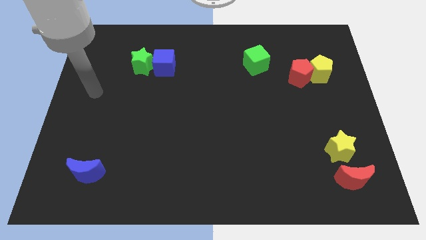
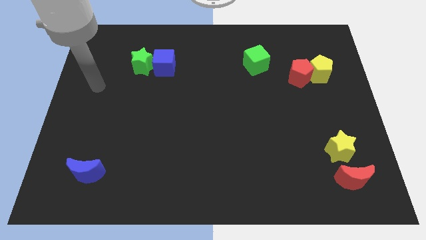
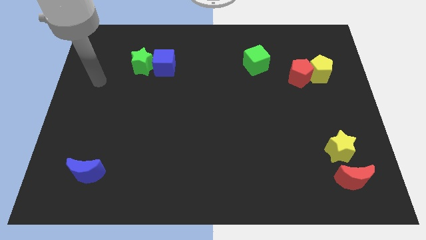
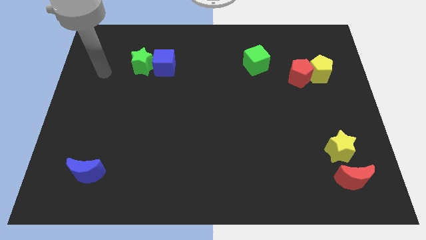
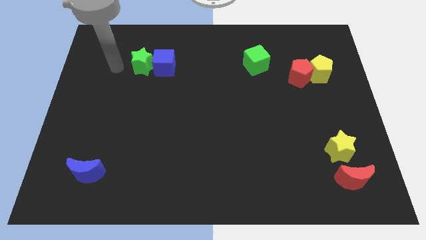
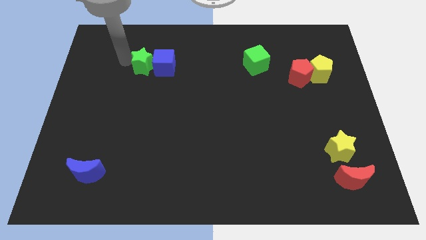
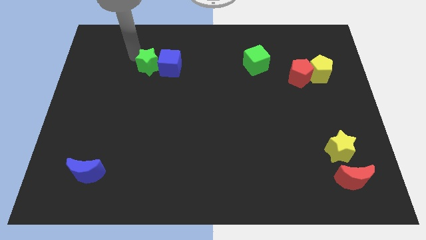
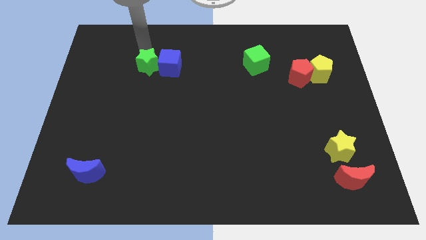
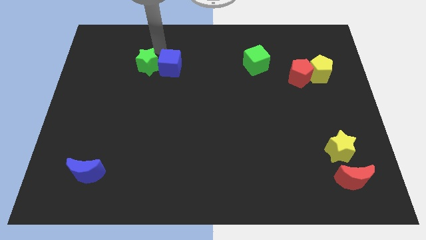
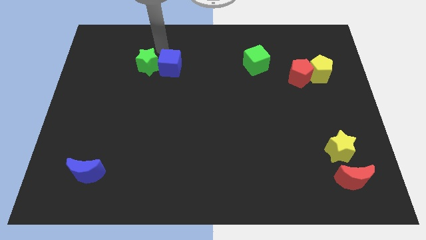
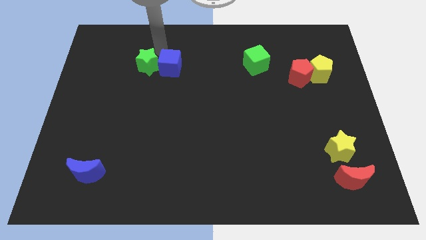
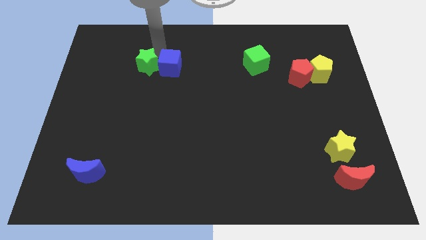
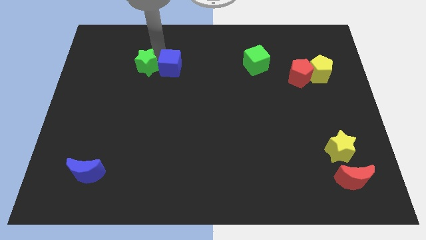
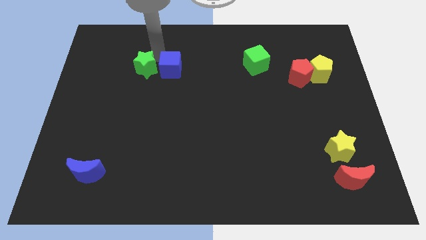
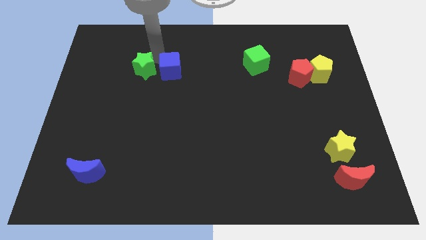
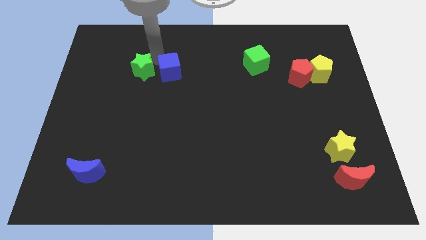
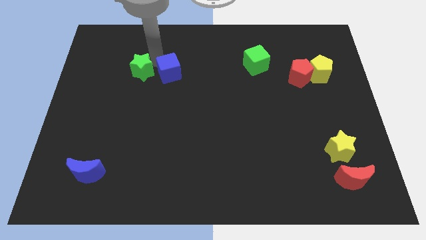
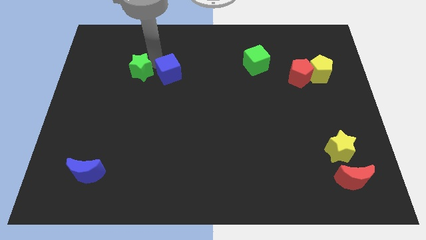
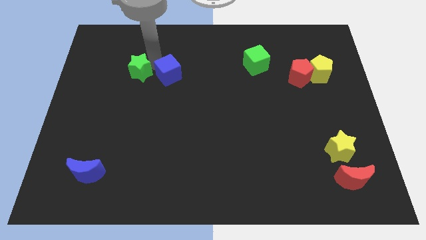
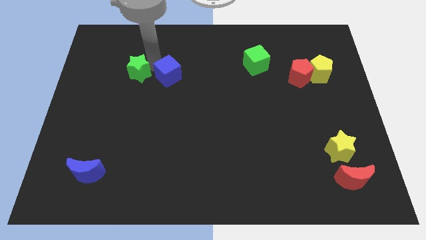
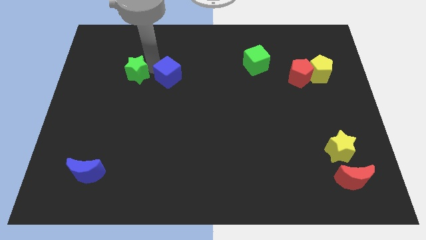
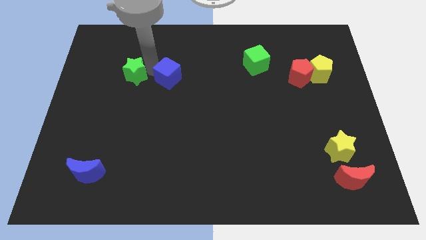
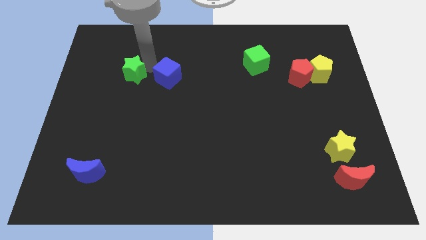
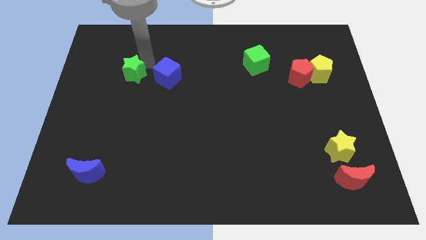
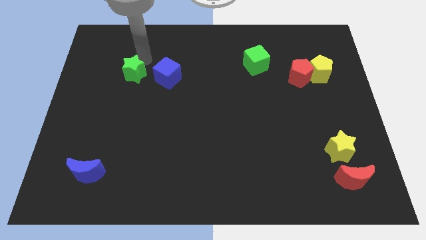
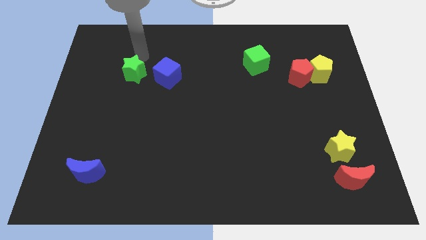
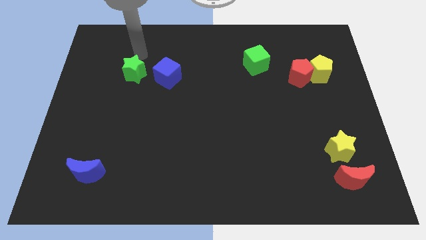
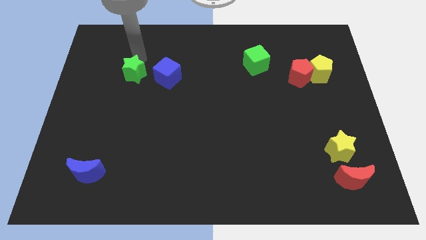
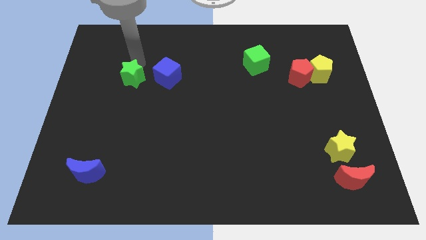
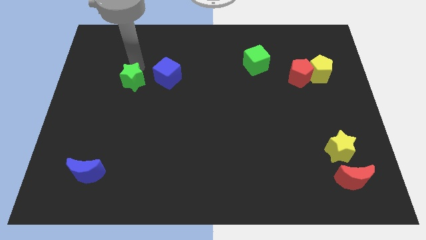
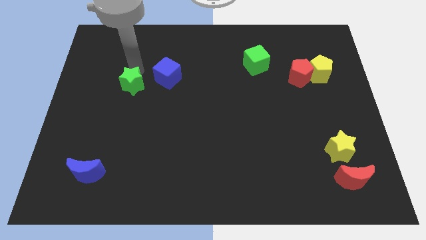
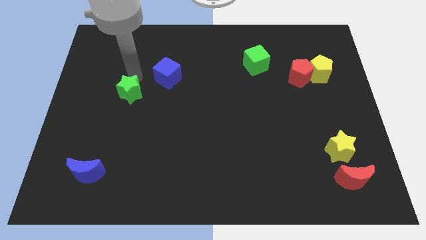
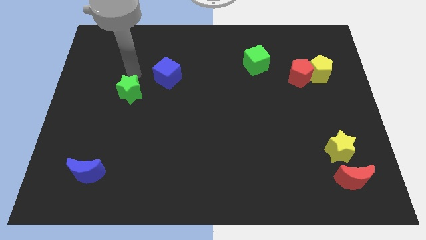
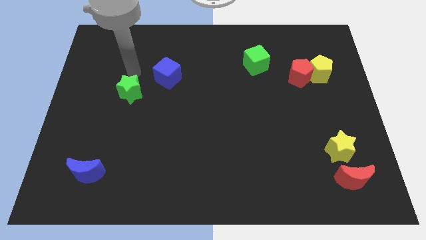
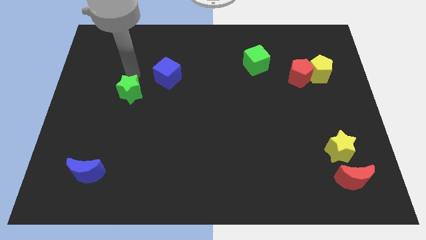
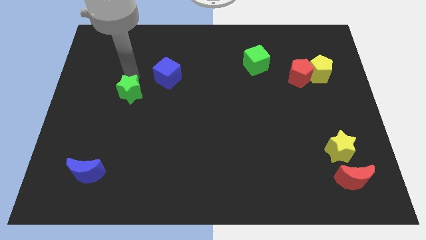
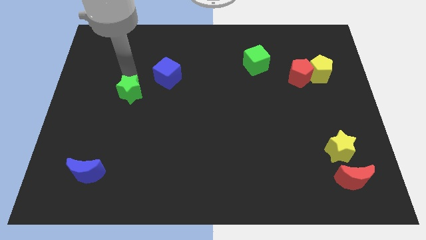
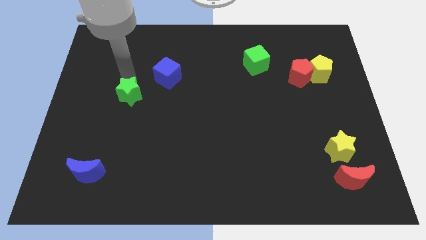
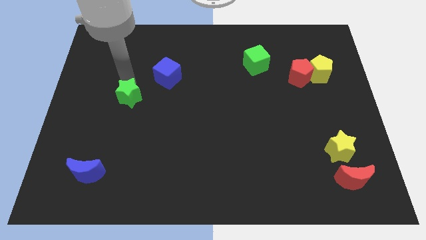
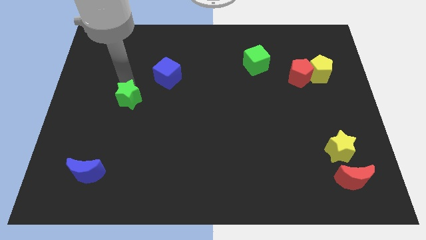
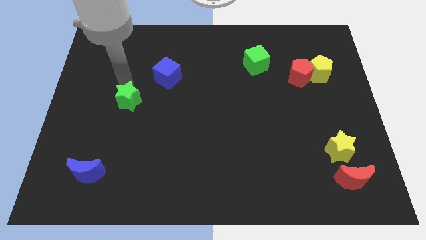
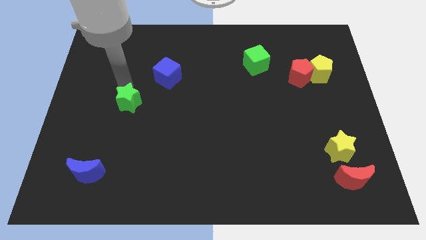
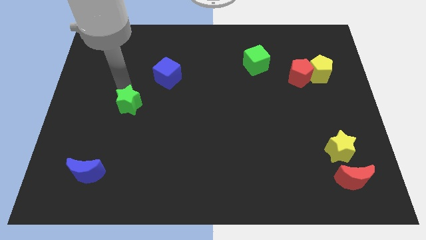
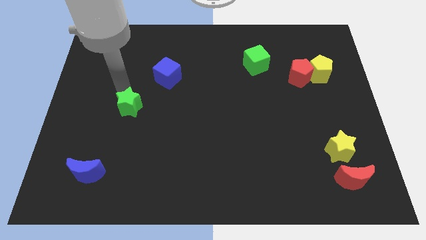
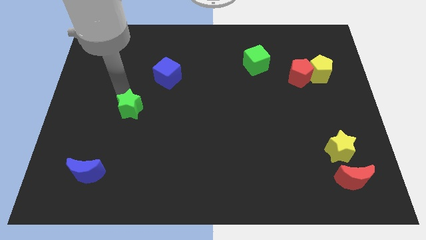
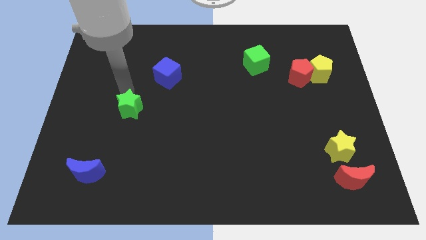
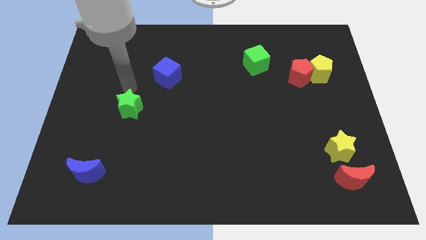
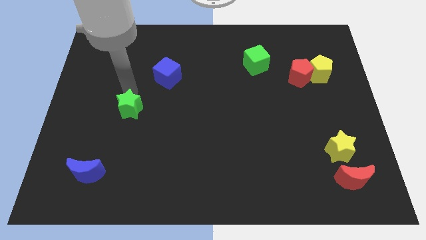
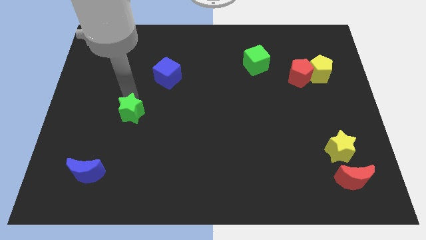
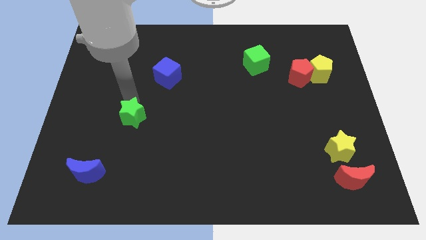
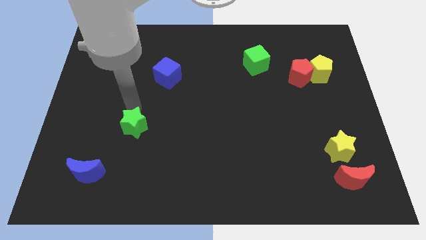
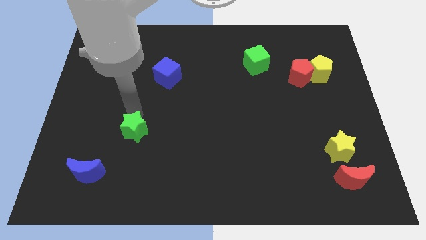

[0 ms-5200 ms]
slide the green star down

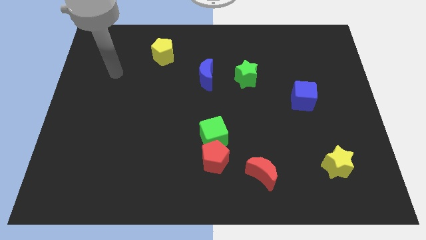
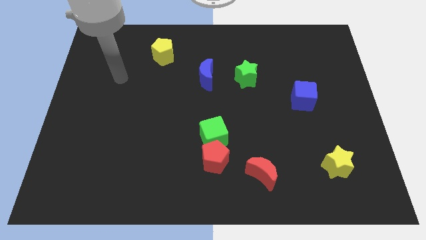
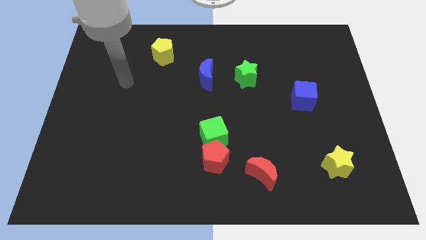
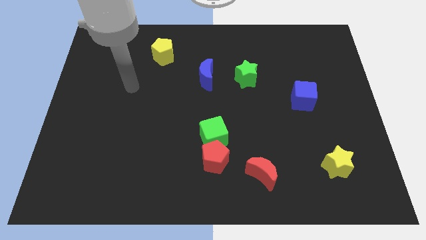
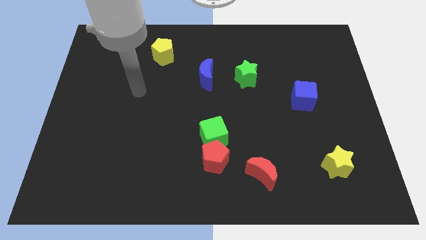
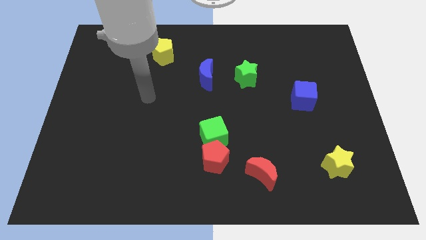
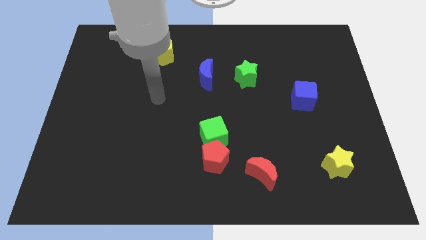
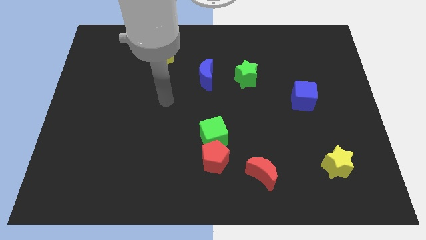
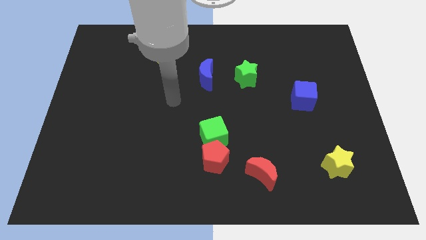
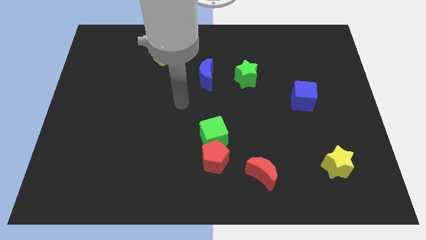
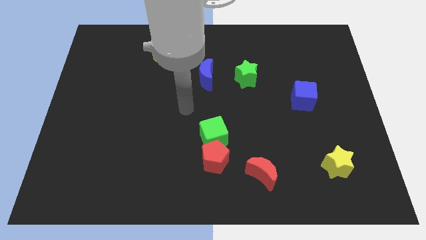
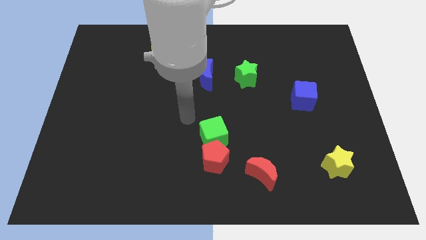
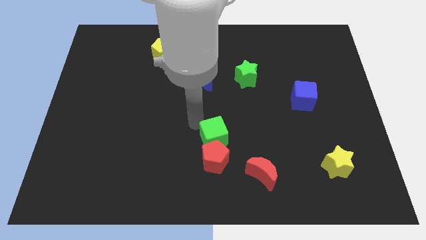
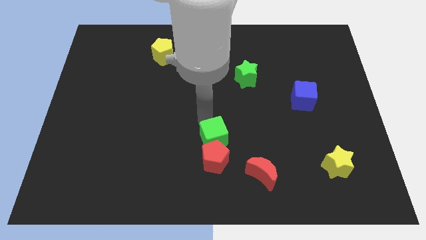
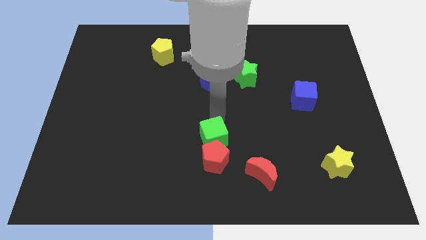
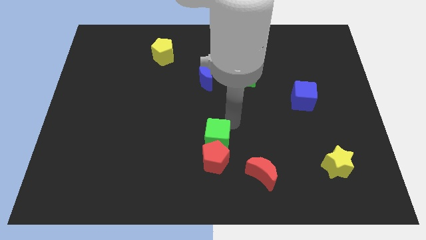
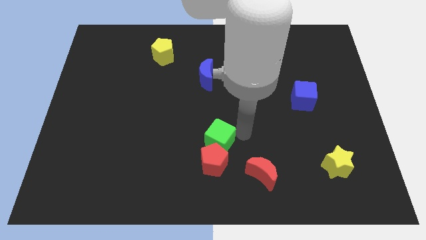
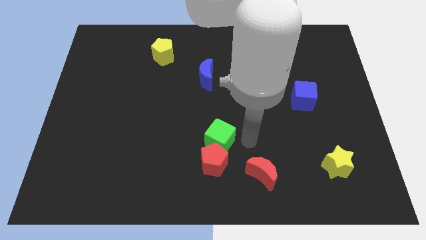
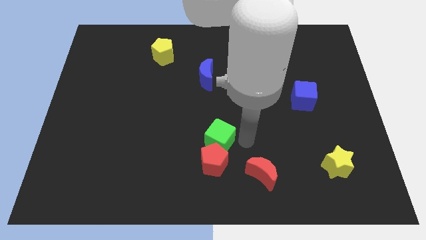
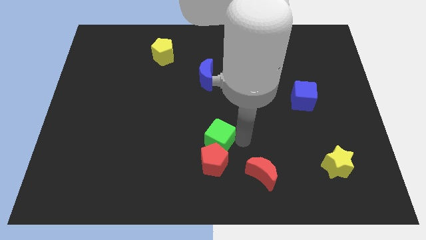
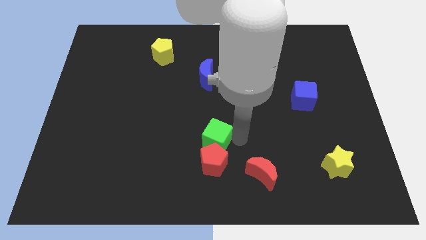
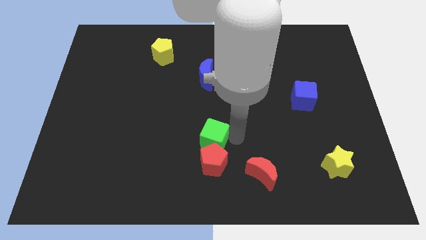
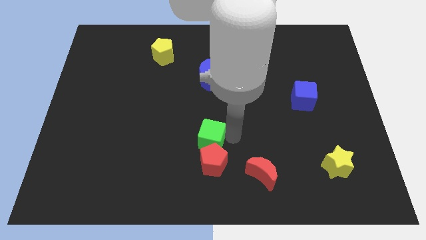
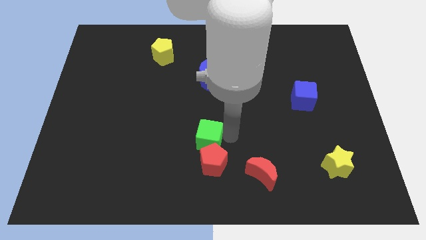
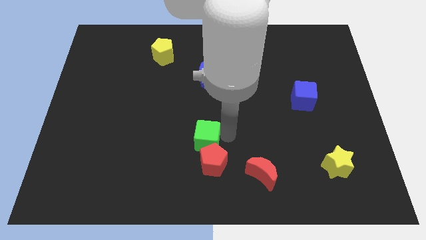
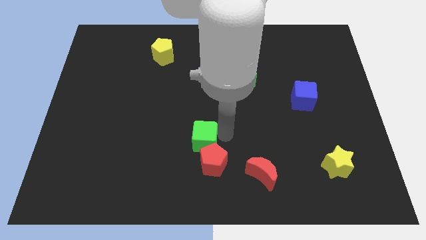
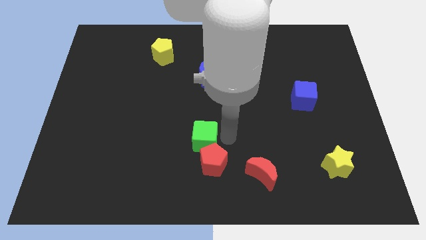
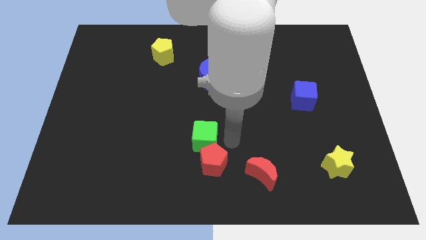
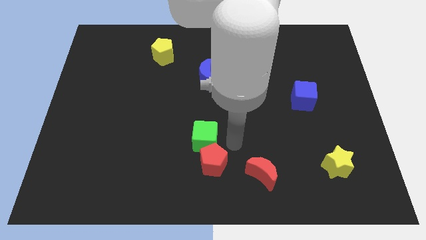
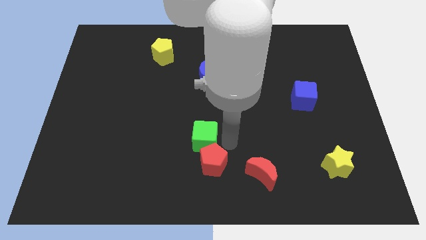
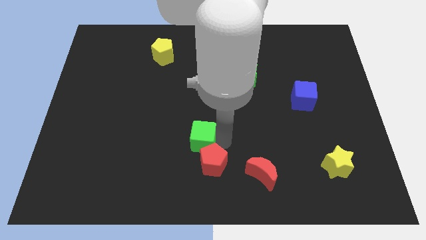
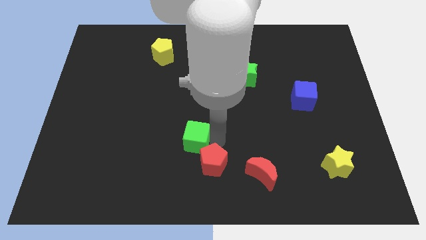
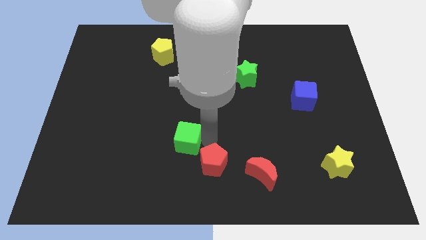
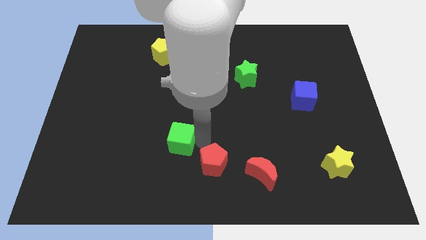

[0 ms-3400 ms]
slightly push the green cube to the left
